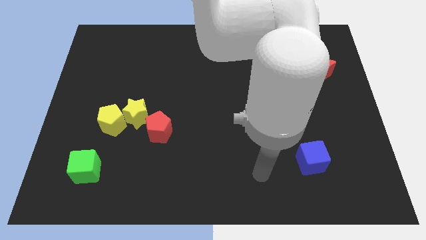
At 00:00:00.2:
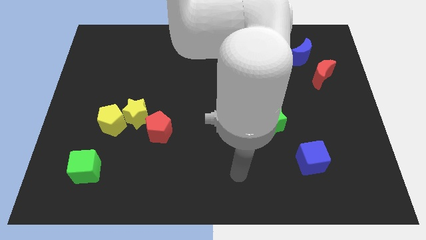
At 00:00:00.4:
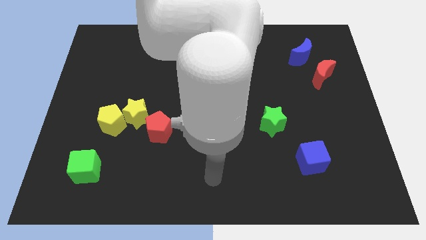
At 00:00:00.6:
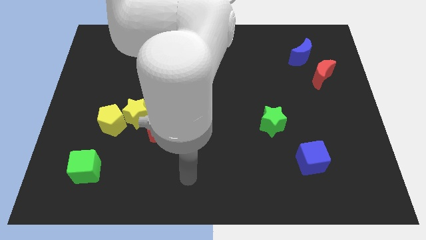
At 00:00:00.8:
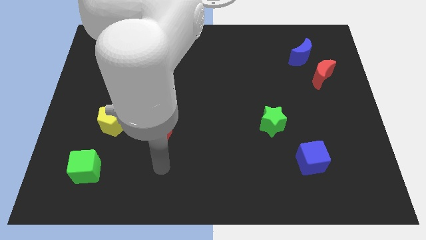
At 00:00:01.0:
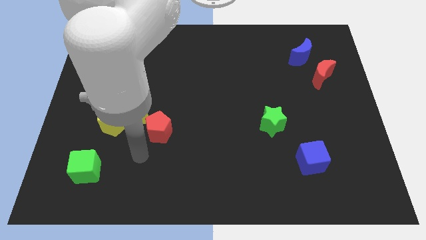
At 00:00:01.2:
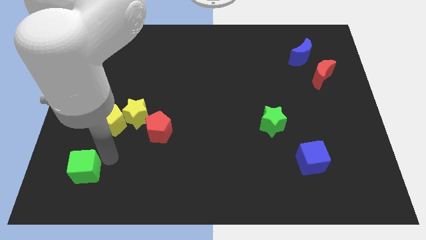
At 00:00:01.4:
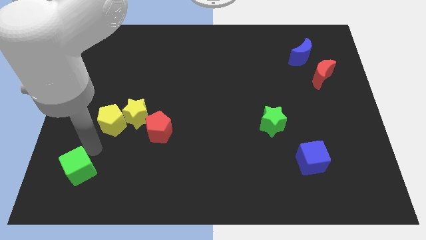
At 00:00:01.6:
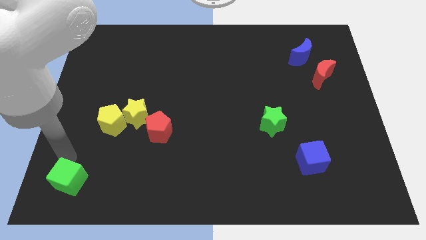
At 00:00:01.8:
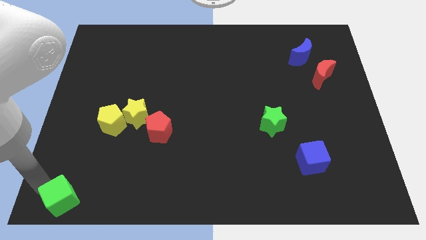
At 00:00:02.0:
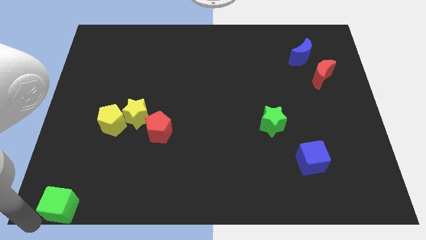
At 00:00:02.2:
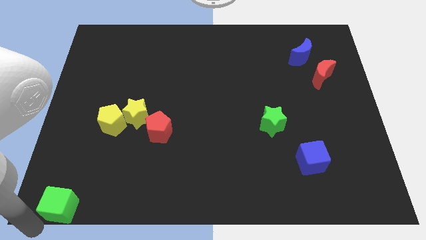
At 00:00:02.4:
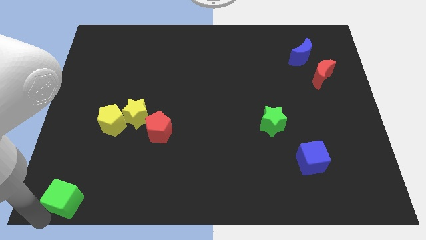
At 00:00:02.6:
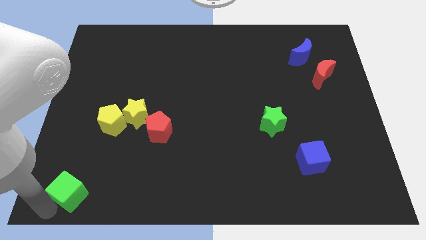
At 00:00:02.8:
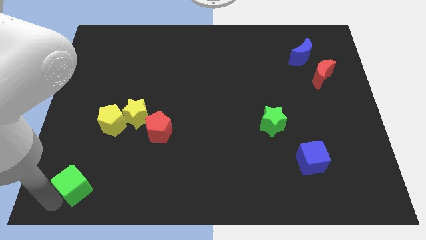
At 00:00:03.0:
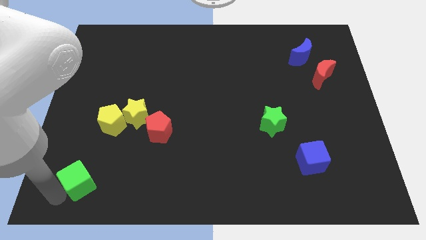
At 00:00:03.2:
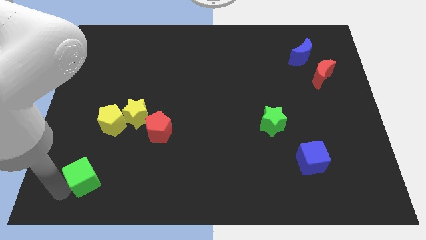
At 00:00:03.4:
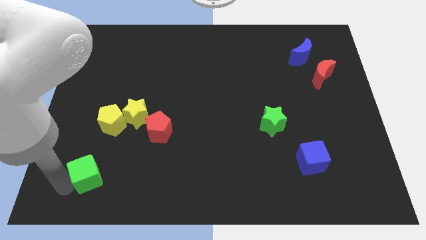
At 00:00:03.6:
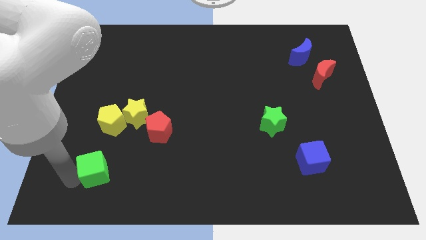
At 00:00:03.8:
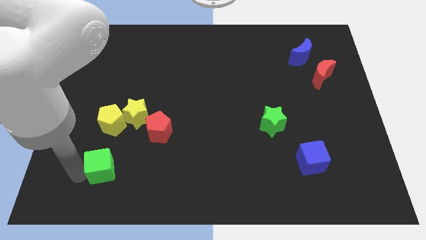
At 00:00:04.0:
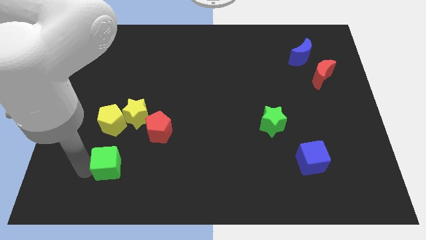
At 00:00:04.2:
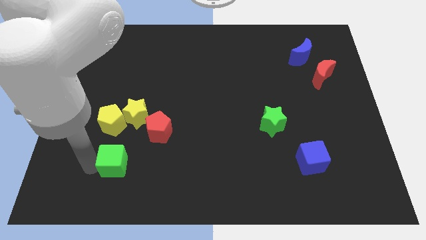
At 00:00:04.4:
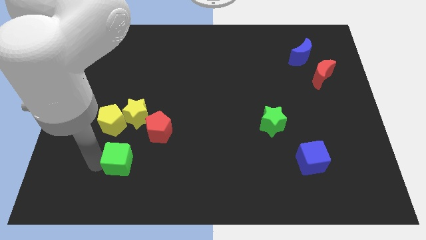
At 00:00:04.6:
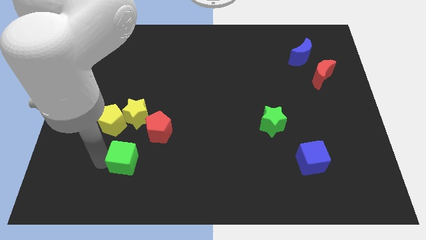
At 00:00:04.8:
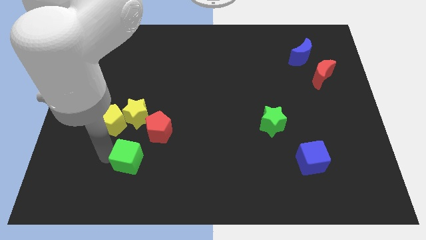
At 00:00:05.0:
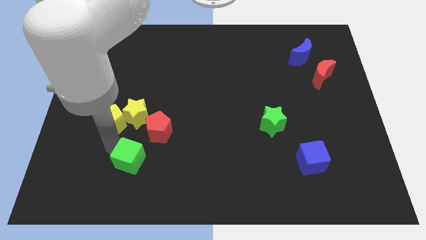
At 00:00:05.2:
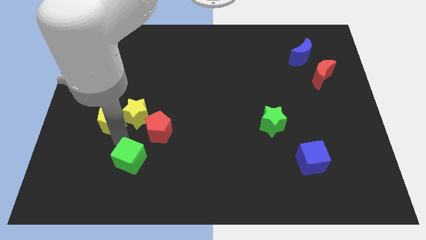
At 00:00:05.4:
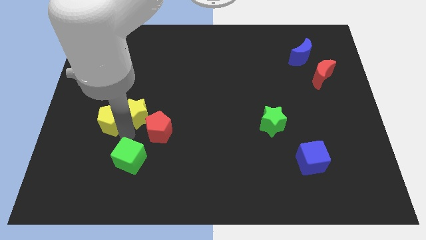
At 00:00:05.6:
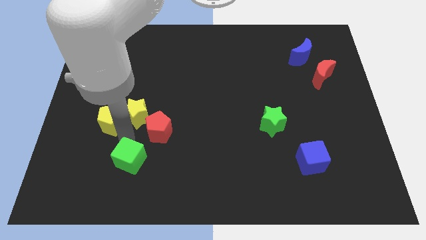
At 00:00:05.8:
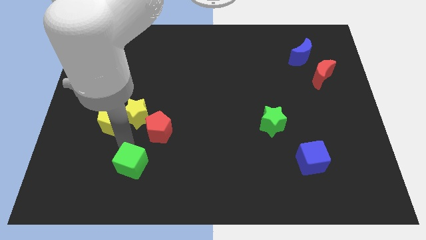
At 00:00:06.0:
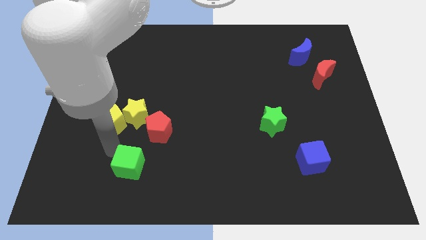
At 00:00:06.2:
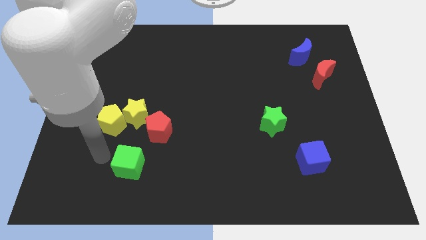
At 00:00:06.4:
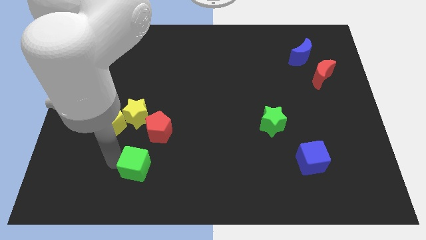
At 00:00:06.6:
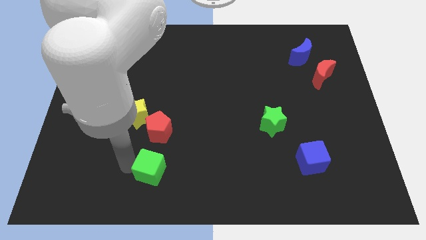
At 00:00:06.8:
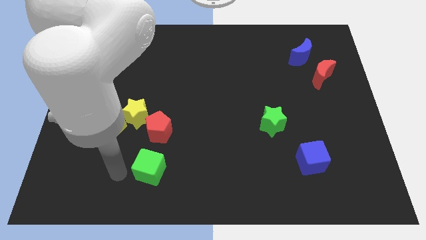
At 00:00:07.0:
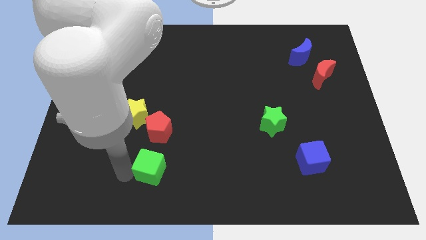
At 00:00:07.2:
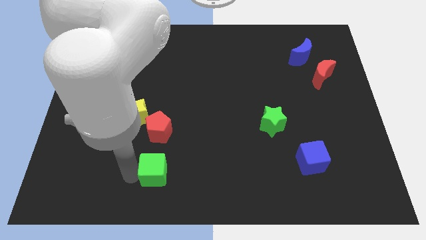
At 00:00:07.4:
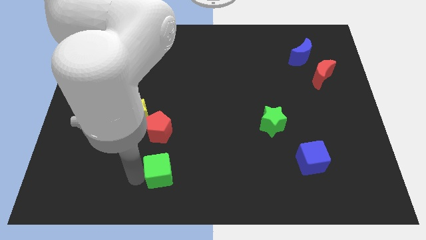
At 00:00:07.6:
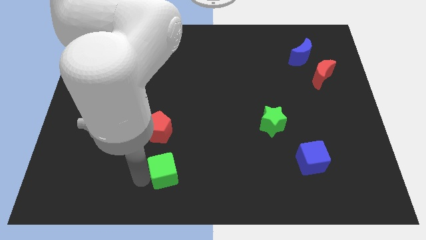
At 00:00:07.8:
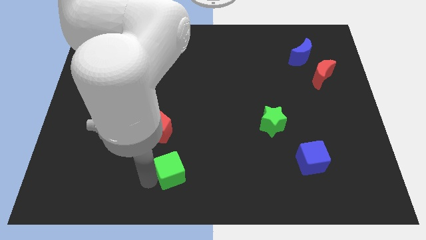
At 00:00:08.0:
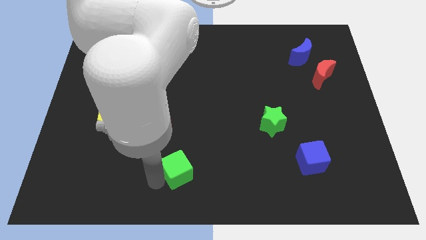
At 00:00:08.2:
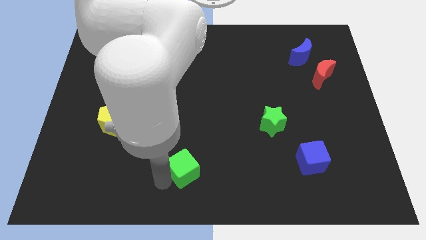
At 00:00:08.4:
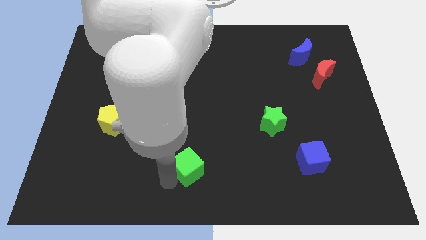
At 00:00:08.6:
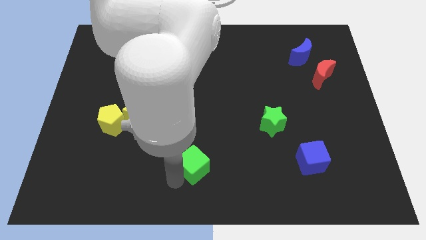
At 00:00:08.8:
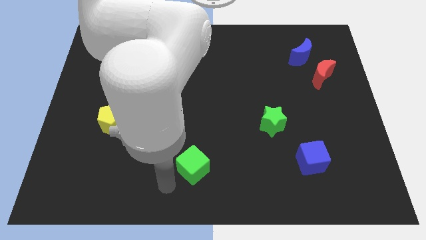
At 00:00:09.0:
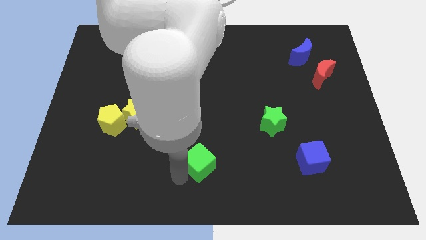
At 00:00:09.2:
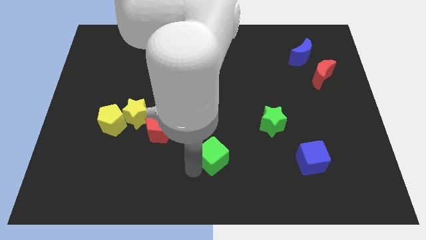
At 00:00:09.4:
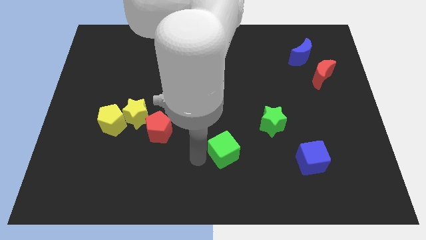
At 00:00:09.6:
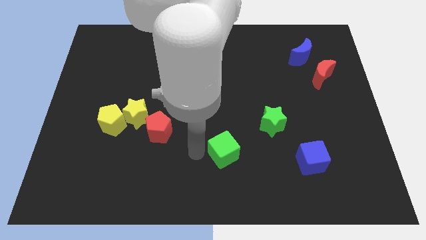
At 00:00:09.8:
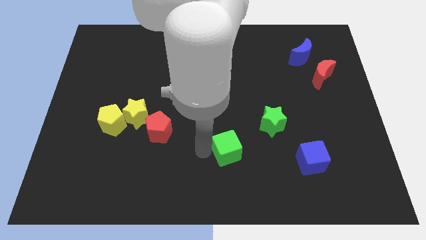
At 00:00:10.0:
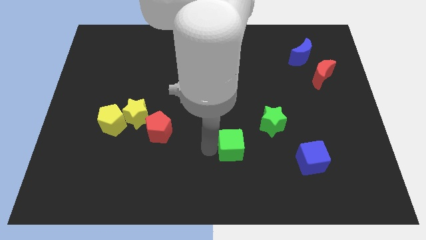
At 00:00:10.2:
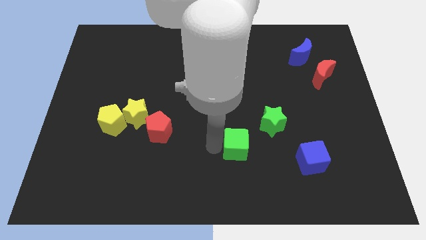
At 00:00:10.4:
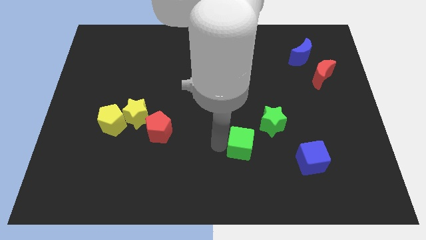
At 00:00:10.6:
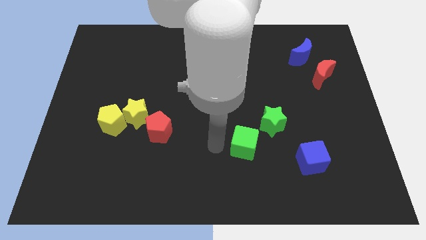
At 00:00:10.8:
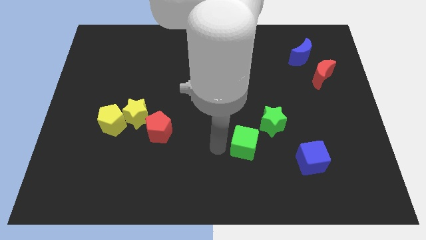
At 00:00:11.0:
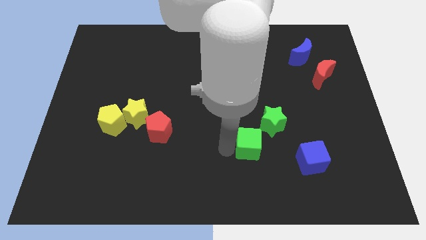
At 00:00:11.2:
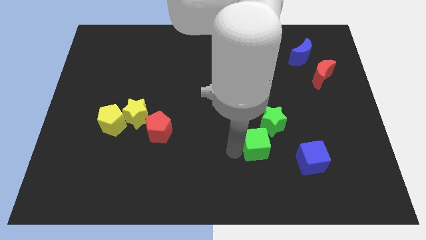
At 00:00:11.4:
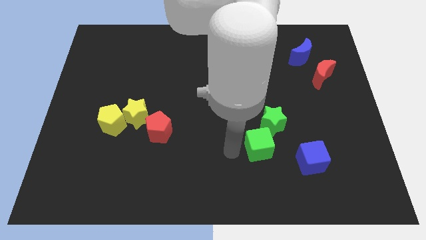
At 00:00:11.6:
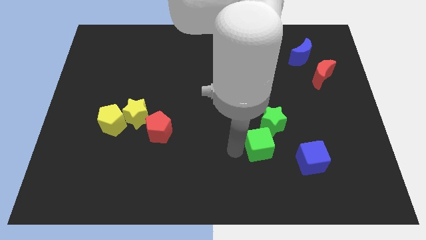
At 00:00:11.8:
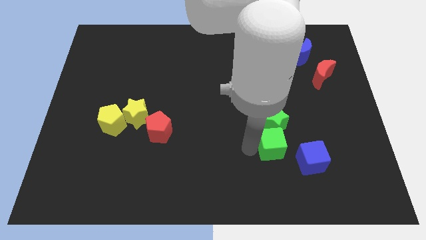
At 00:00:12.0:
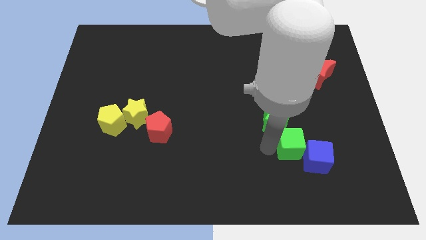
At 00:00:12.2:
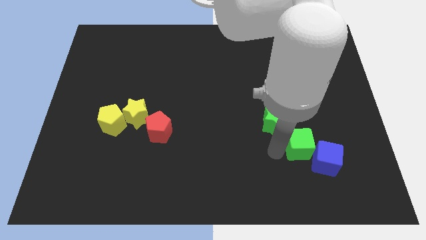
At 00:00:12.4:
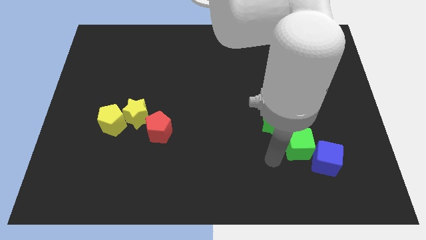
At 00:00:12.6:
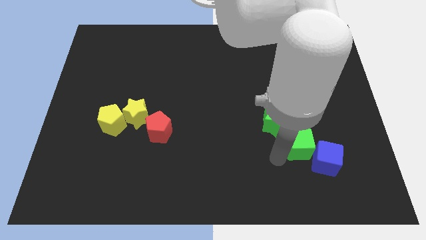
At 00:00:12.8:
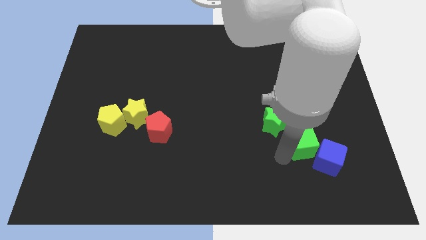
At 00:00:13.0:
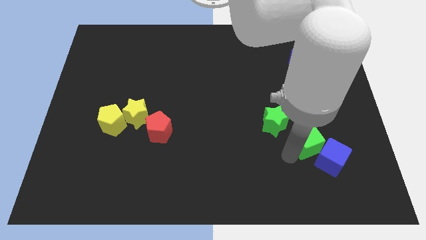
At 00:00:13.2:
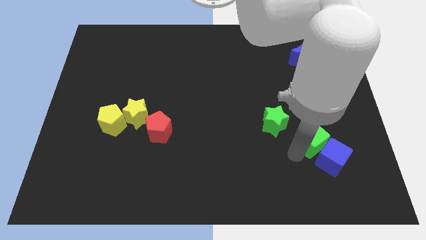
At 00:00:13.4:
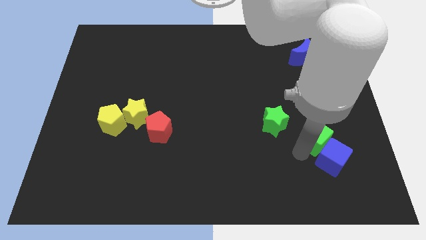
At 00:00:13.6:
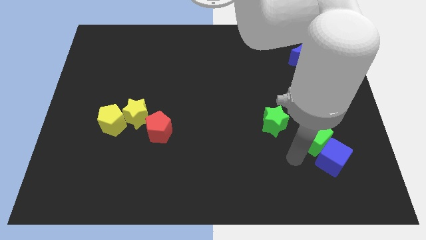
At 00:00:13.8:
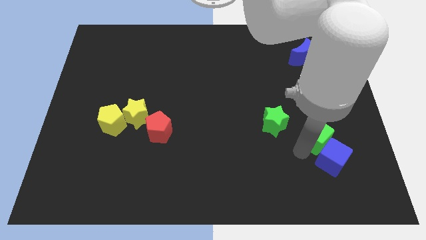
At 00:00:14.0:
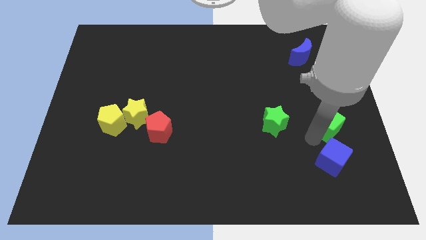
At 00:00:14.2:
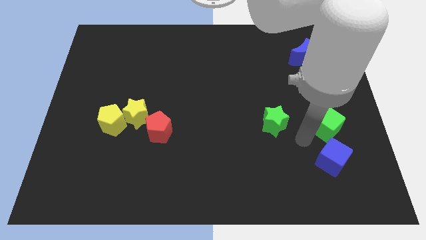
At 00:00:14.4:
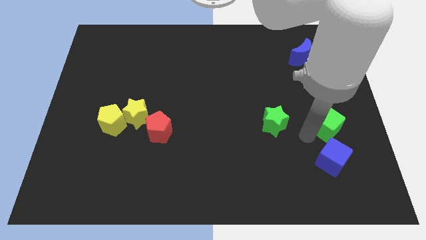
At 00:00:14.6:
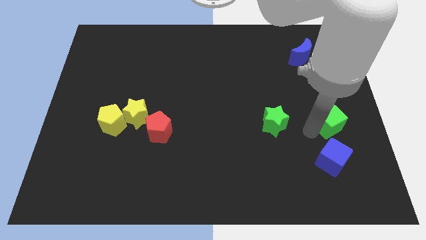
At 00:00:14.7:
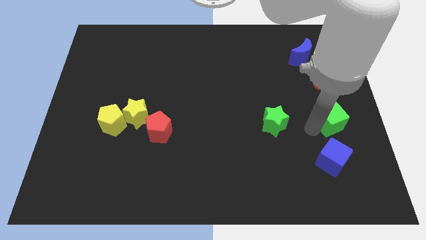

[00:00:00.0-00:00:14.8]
put the green cube to the center right
